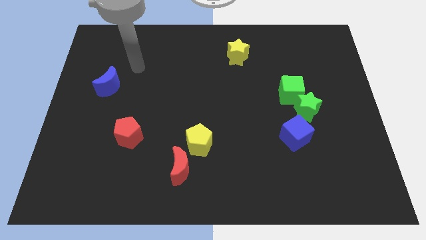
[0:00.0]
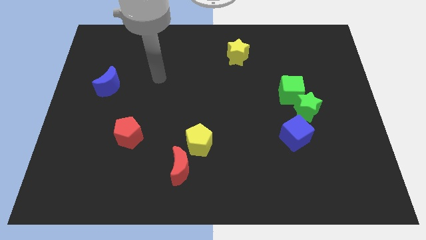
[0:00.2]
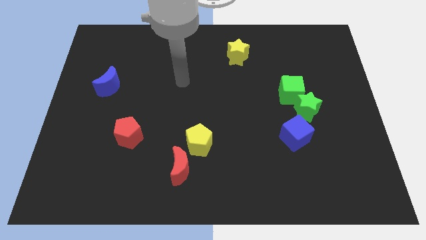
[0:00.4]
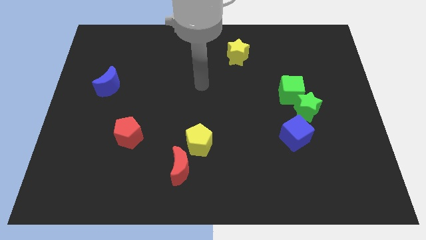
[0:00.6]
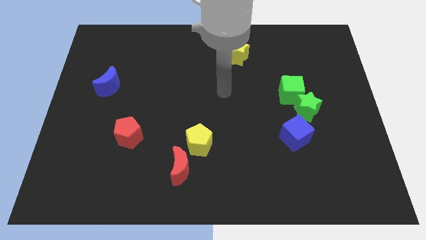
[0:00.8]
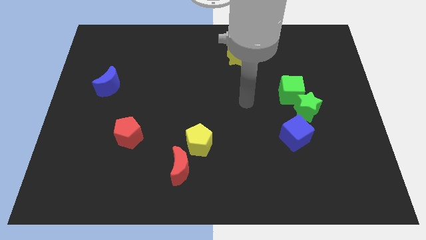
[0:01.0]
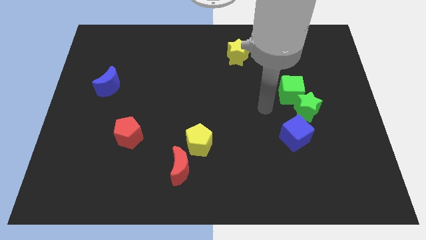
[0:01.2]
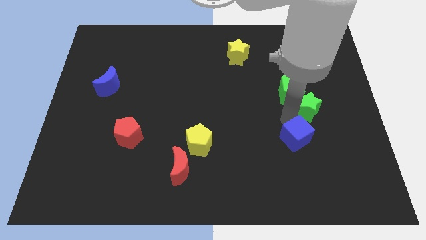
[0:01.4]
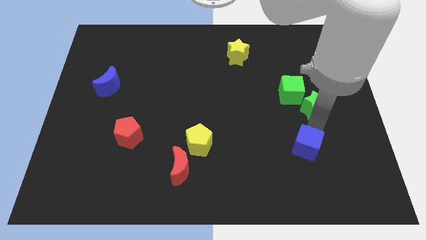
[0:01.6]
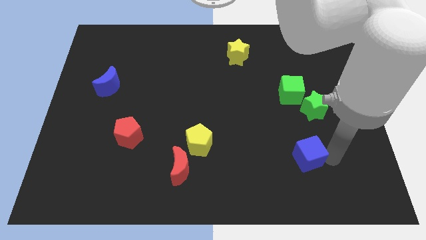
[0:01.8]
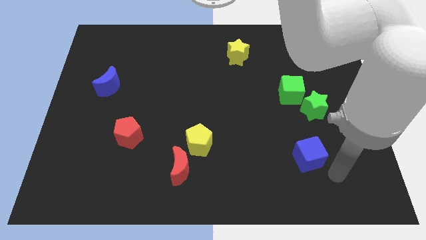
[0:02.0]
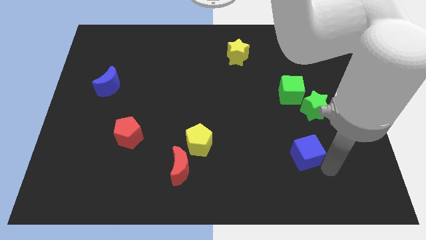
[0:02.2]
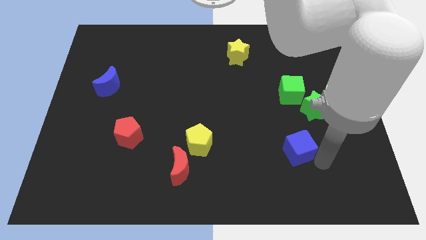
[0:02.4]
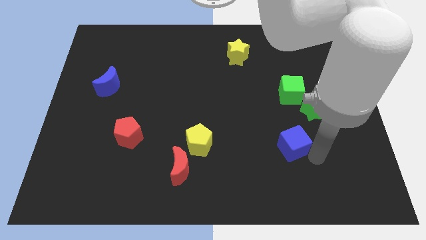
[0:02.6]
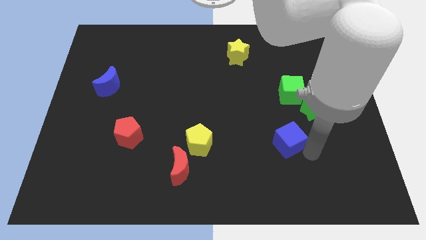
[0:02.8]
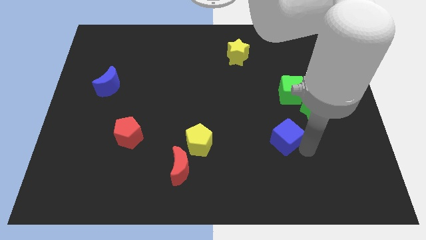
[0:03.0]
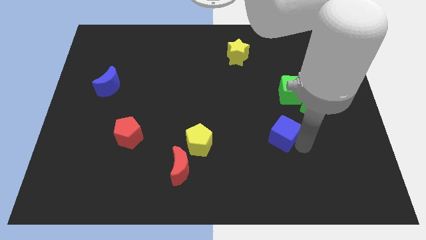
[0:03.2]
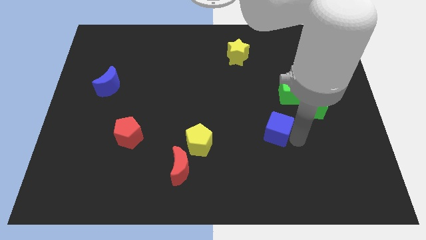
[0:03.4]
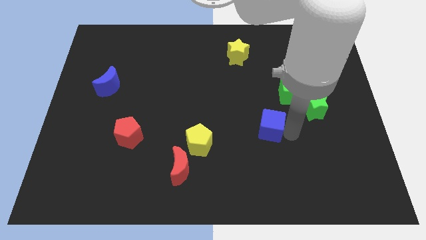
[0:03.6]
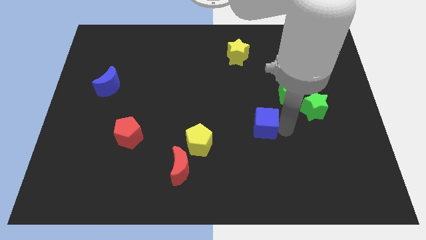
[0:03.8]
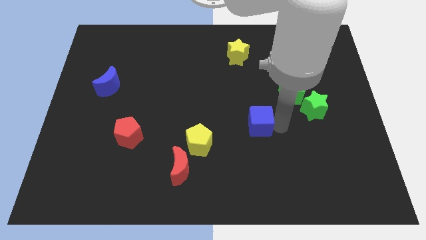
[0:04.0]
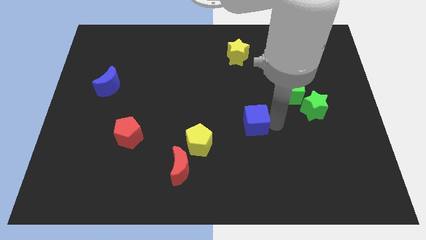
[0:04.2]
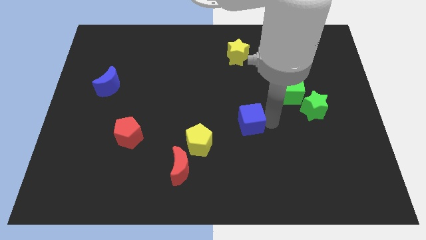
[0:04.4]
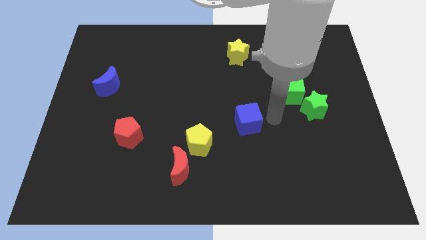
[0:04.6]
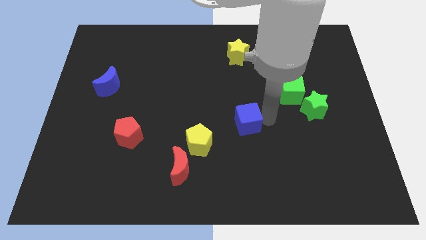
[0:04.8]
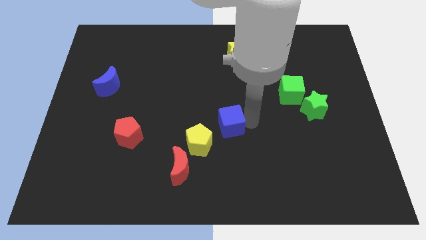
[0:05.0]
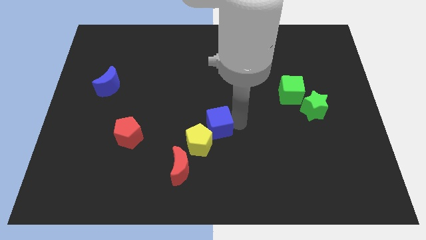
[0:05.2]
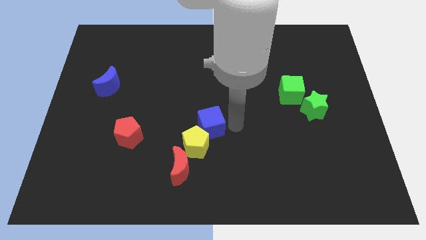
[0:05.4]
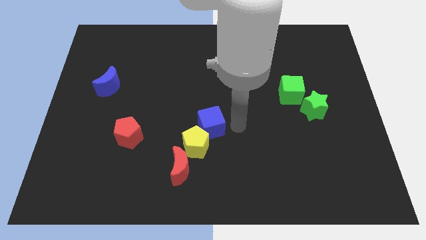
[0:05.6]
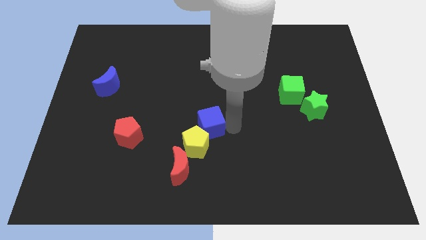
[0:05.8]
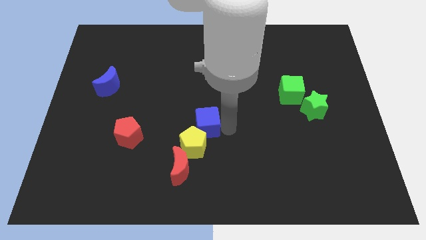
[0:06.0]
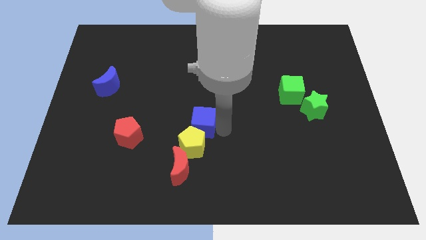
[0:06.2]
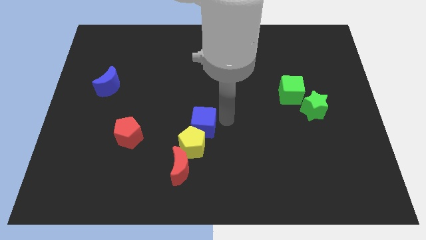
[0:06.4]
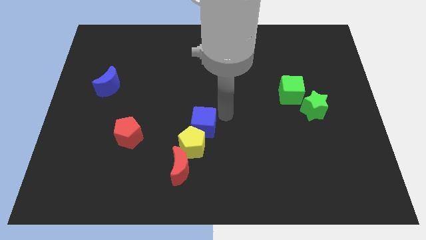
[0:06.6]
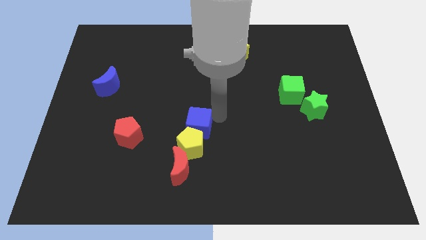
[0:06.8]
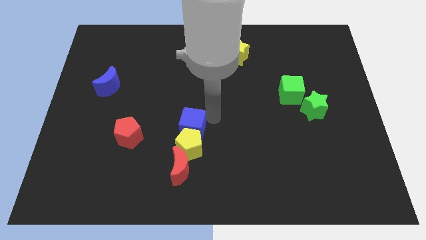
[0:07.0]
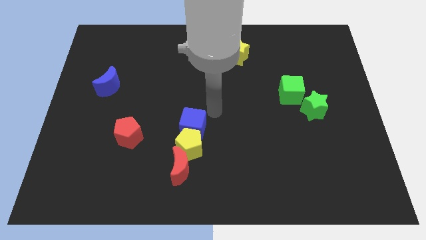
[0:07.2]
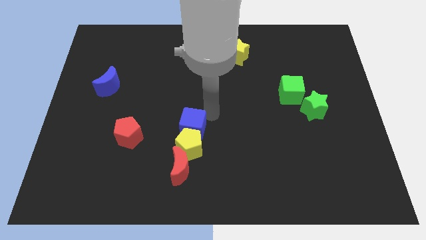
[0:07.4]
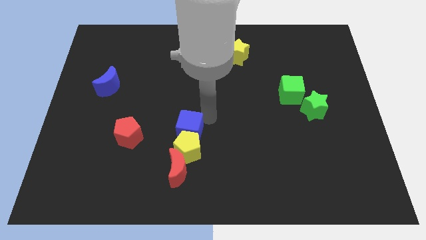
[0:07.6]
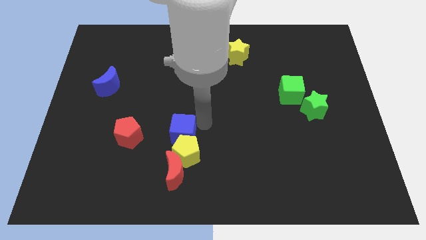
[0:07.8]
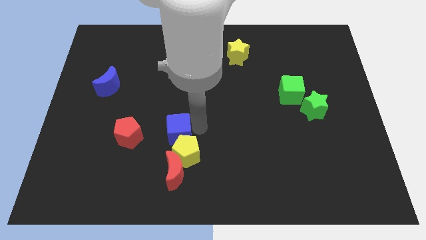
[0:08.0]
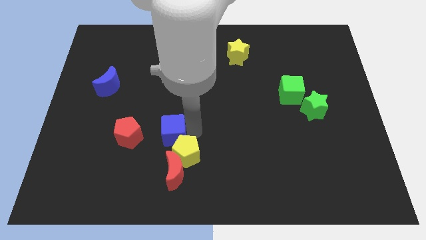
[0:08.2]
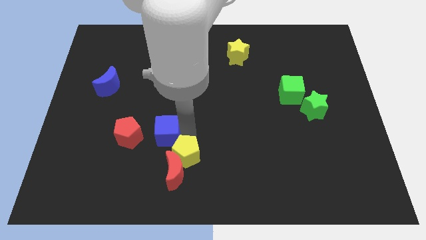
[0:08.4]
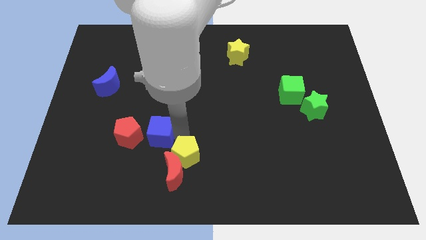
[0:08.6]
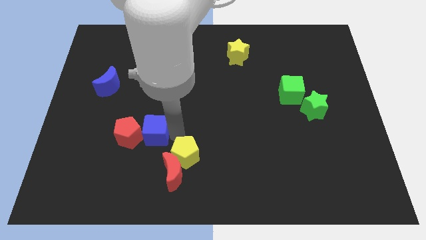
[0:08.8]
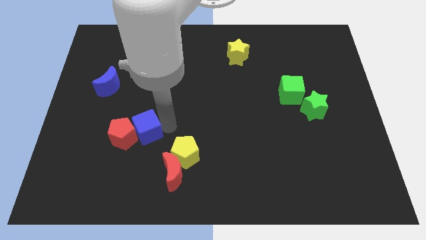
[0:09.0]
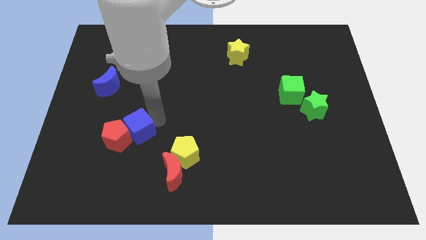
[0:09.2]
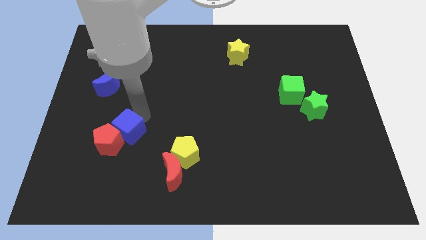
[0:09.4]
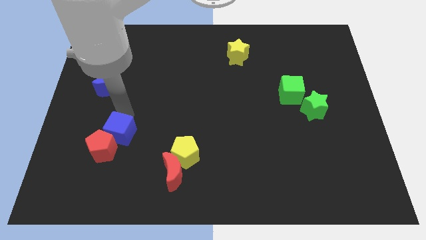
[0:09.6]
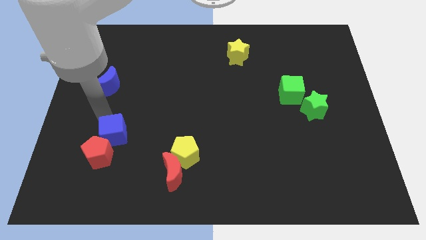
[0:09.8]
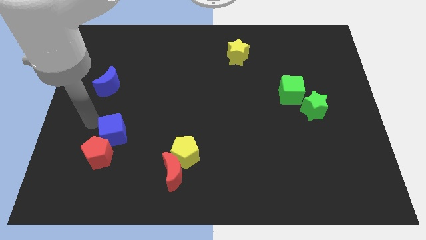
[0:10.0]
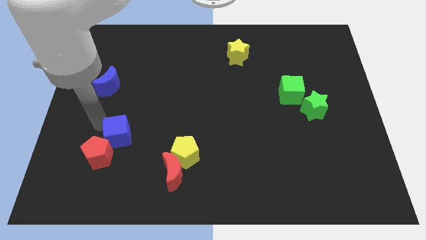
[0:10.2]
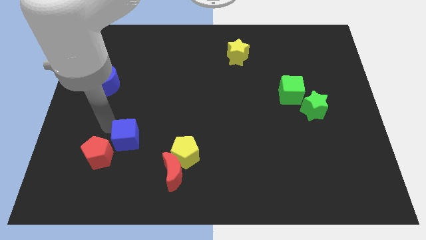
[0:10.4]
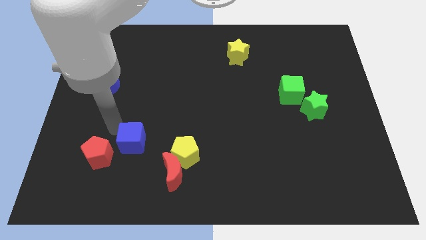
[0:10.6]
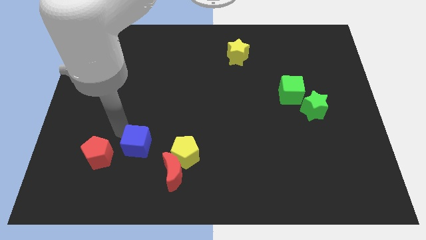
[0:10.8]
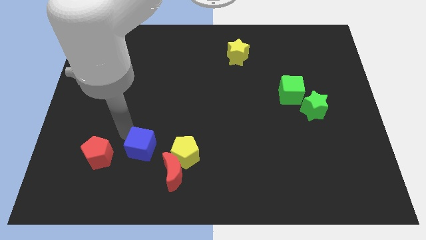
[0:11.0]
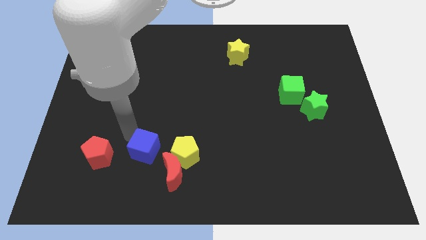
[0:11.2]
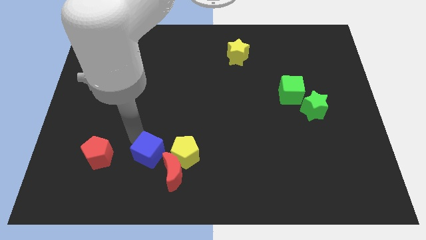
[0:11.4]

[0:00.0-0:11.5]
put the blue cube to the left of the red moon

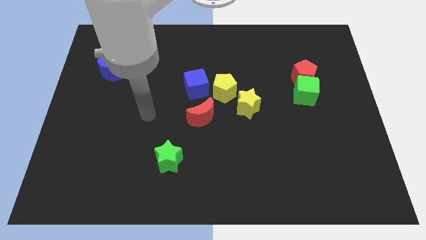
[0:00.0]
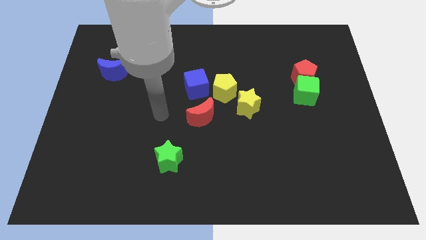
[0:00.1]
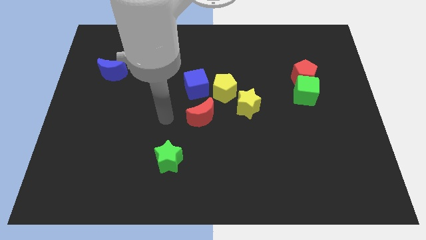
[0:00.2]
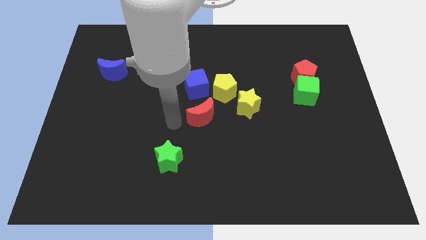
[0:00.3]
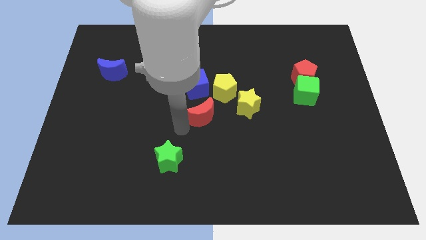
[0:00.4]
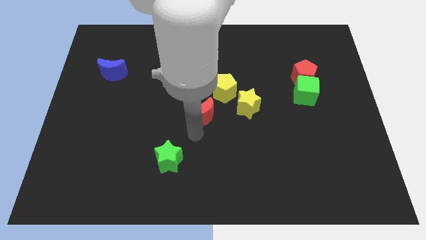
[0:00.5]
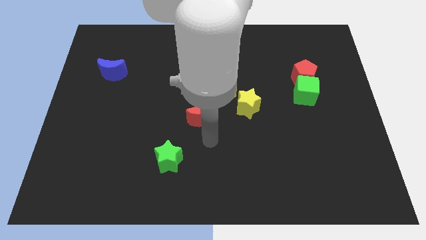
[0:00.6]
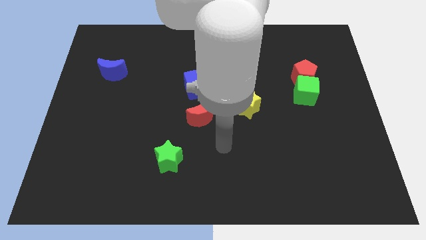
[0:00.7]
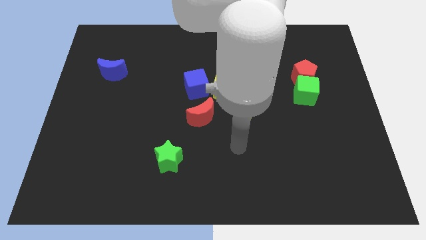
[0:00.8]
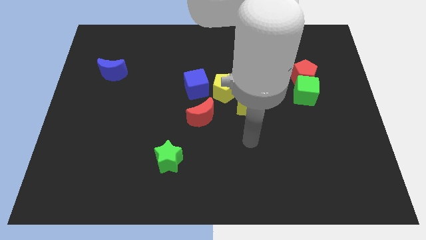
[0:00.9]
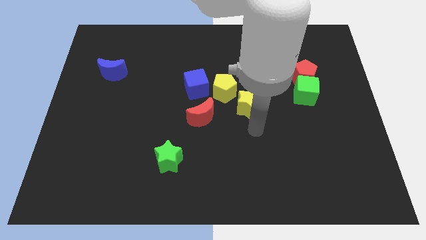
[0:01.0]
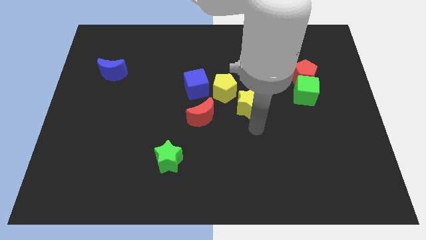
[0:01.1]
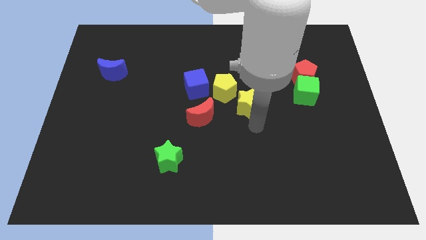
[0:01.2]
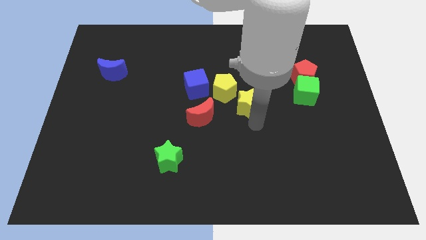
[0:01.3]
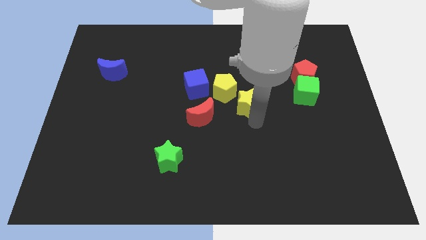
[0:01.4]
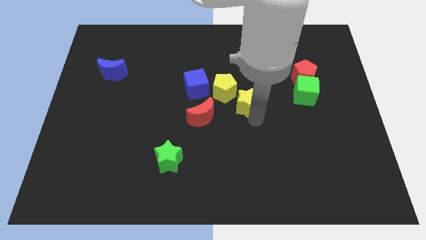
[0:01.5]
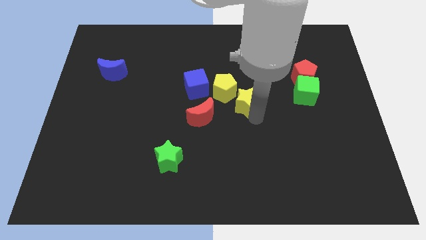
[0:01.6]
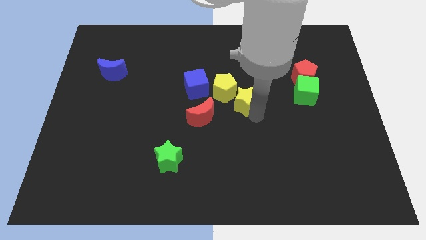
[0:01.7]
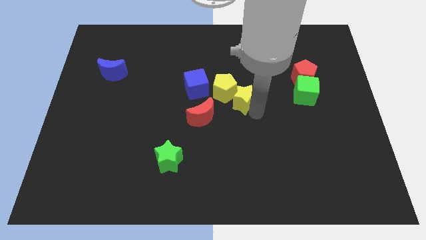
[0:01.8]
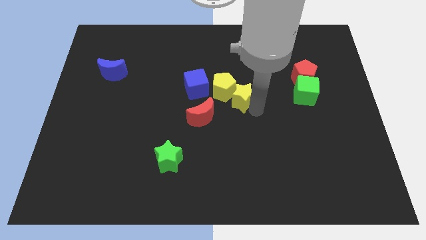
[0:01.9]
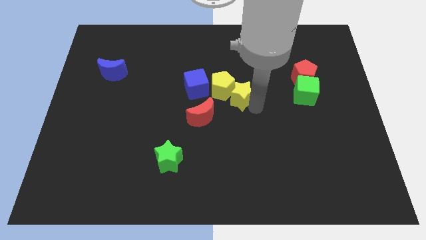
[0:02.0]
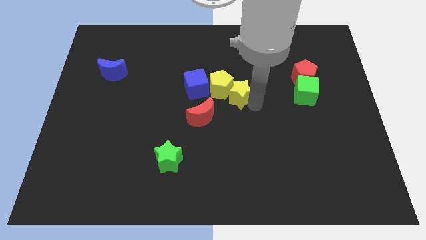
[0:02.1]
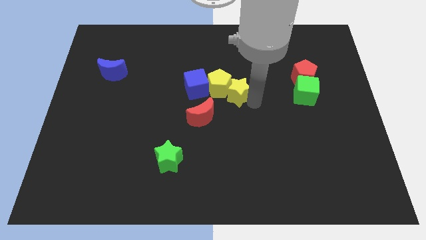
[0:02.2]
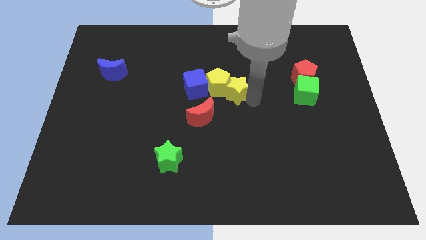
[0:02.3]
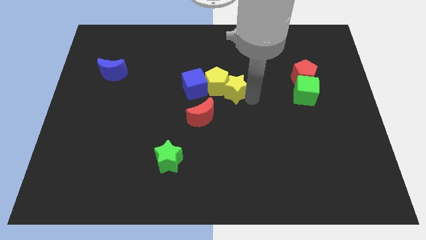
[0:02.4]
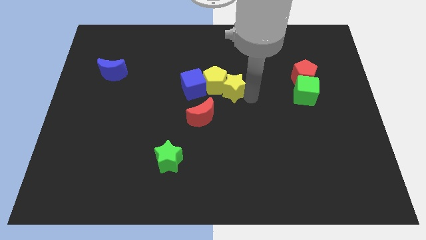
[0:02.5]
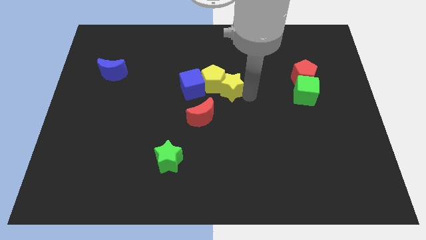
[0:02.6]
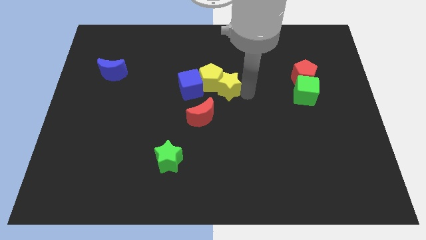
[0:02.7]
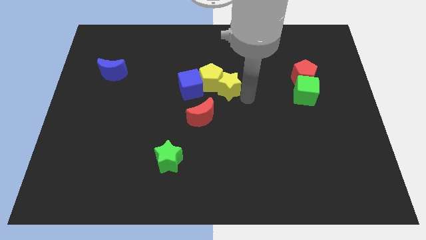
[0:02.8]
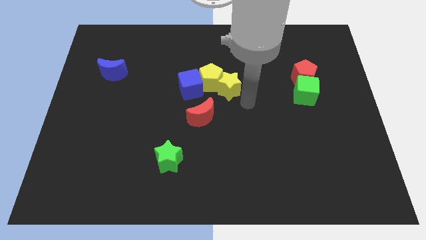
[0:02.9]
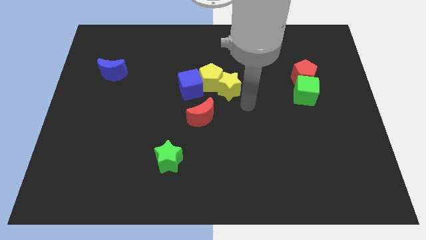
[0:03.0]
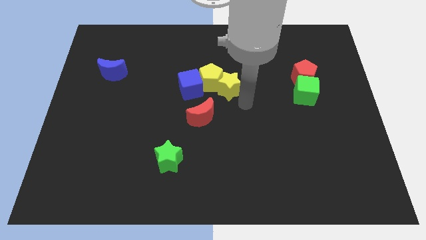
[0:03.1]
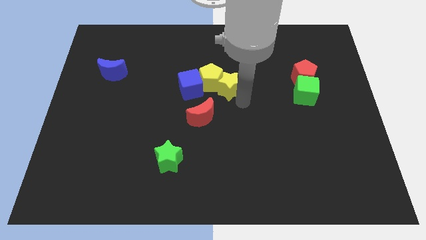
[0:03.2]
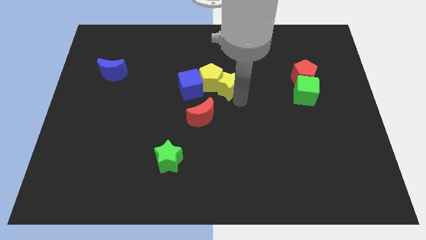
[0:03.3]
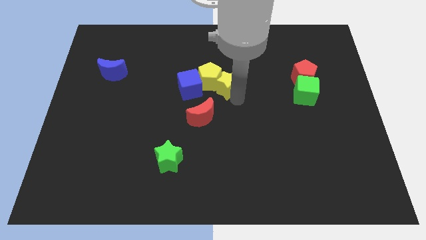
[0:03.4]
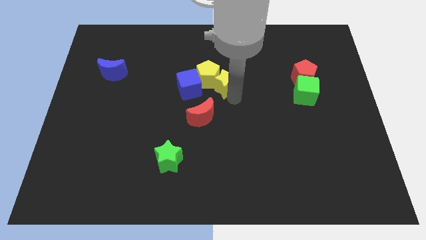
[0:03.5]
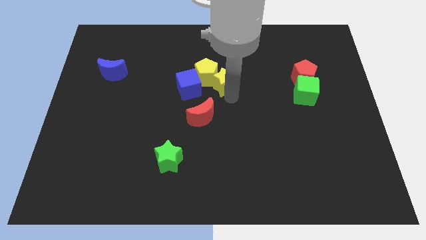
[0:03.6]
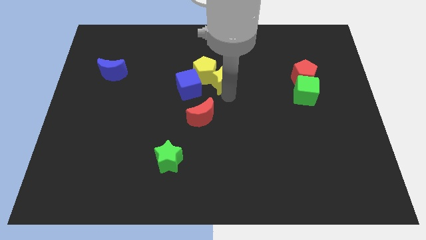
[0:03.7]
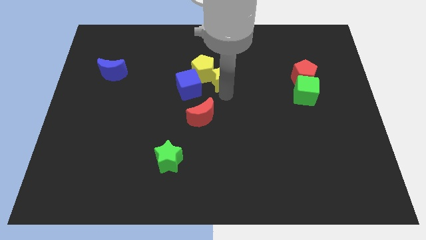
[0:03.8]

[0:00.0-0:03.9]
push the yellow star to the top right side of the blue cube
